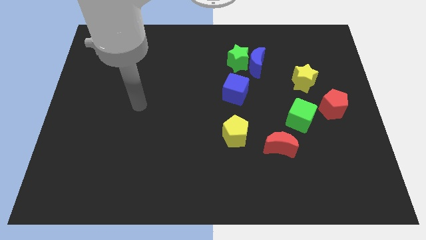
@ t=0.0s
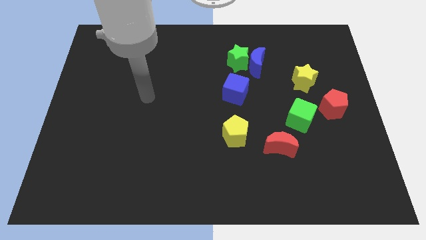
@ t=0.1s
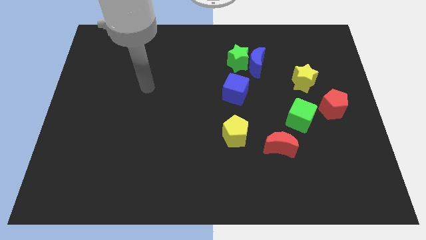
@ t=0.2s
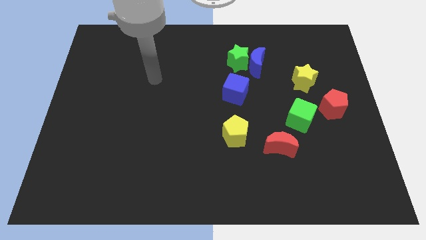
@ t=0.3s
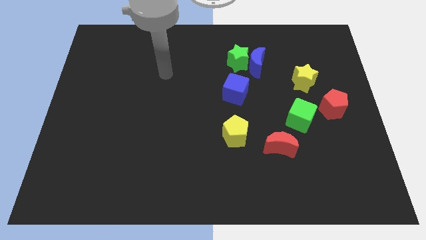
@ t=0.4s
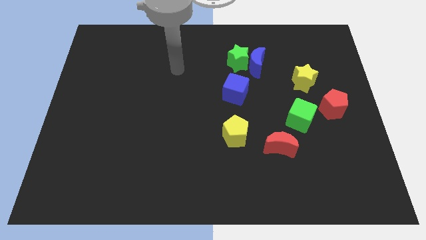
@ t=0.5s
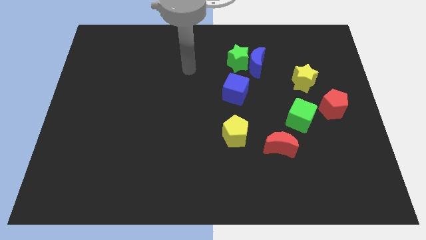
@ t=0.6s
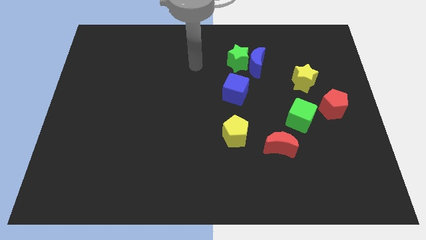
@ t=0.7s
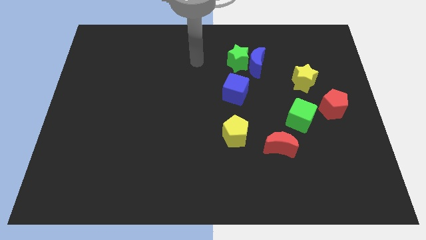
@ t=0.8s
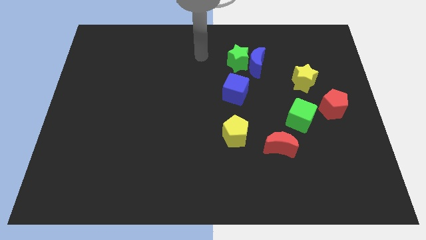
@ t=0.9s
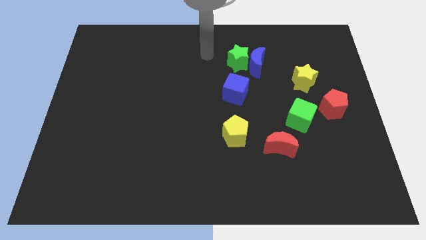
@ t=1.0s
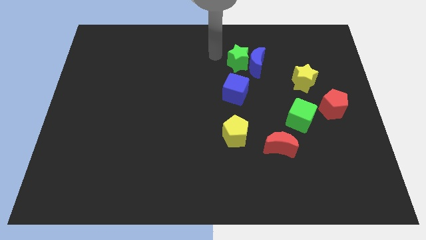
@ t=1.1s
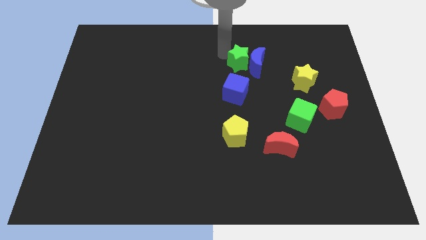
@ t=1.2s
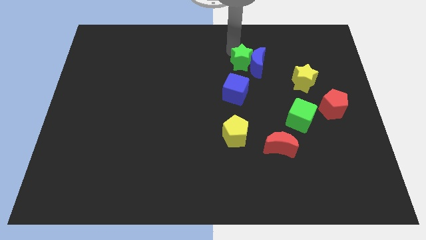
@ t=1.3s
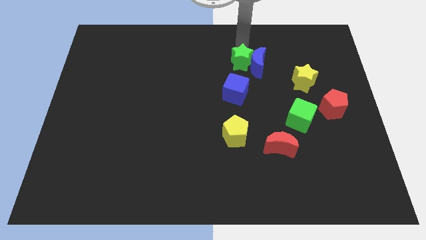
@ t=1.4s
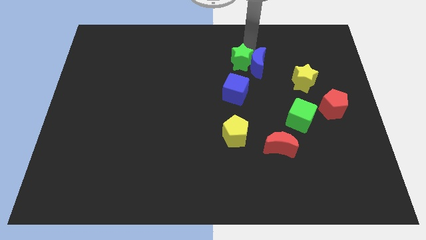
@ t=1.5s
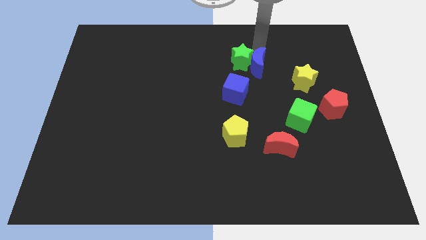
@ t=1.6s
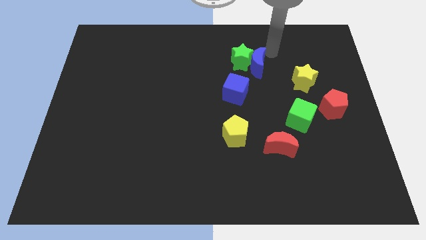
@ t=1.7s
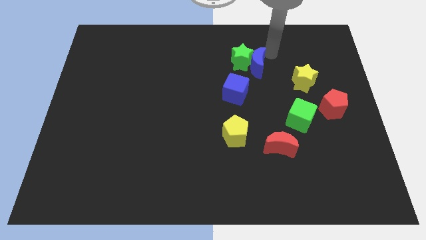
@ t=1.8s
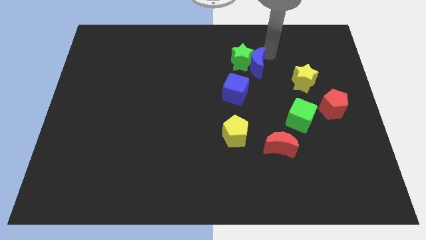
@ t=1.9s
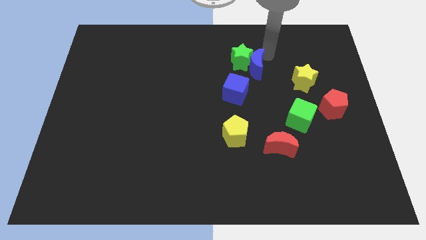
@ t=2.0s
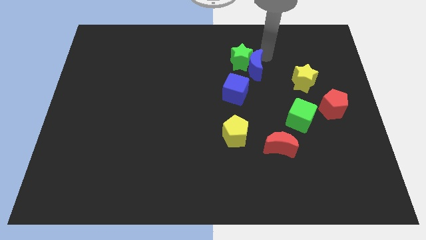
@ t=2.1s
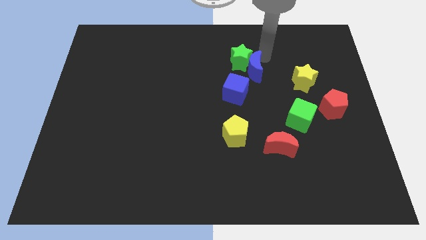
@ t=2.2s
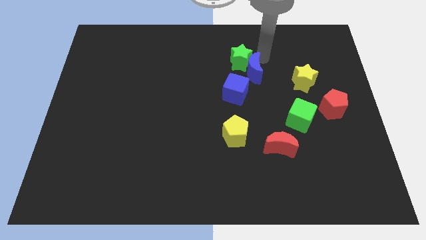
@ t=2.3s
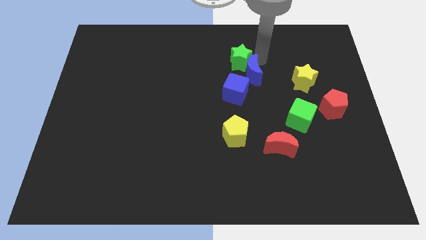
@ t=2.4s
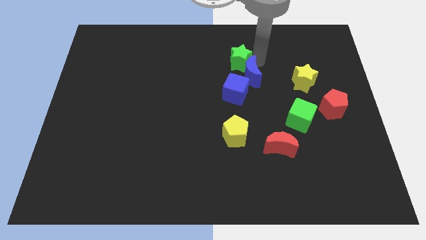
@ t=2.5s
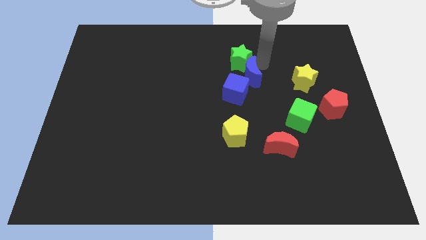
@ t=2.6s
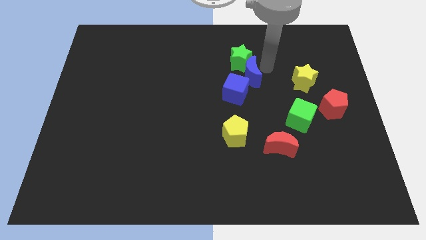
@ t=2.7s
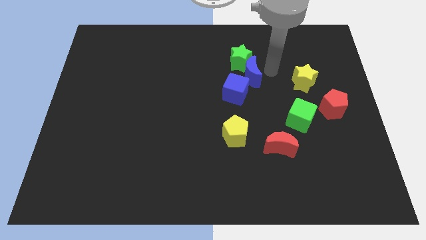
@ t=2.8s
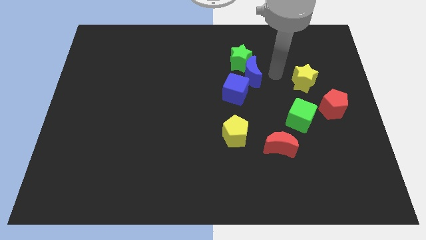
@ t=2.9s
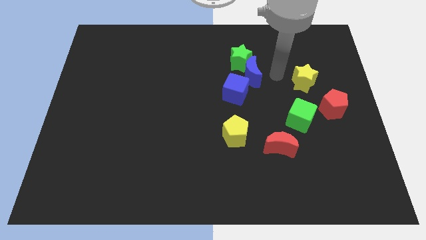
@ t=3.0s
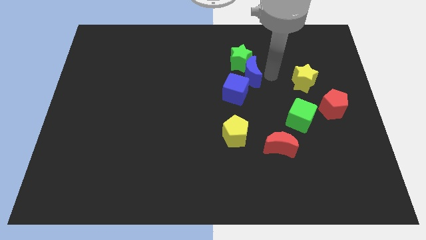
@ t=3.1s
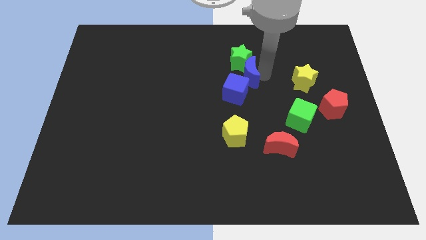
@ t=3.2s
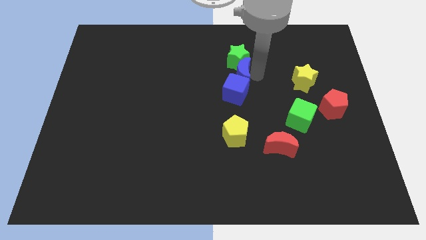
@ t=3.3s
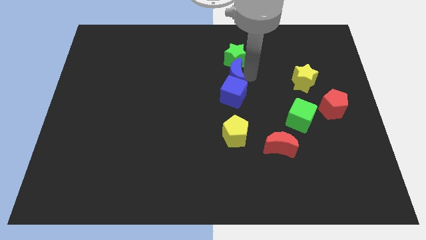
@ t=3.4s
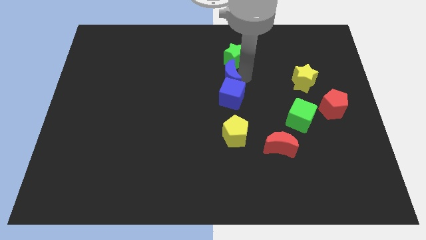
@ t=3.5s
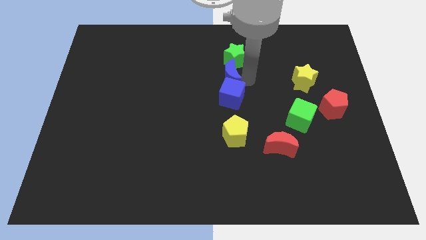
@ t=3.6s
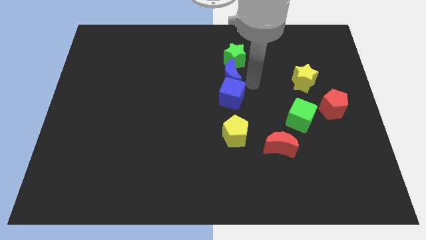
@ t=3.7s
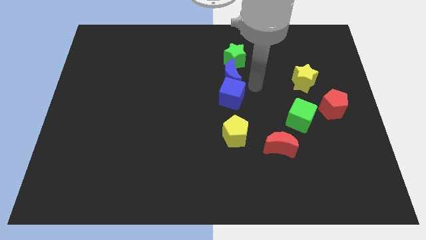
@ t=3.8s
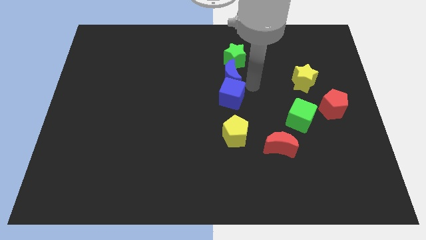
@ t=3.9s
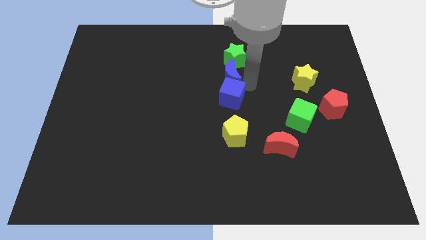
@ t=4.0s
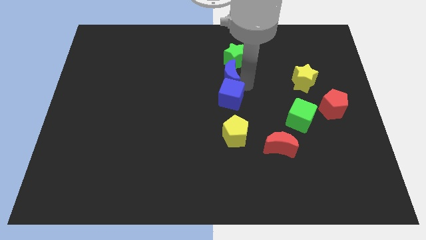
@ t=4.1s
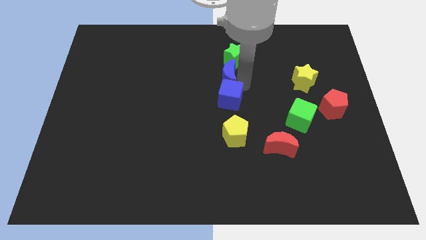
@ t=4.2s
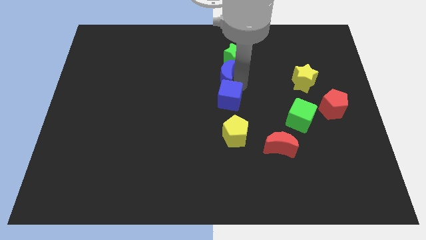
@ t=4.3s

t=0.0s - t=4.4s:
slightly move the blue moon to the left

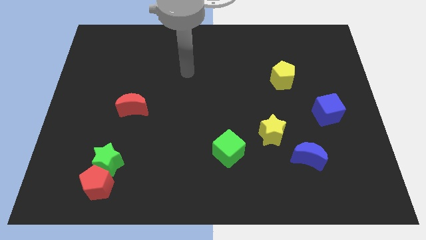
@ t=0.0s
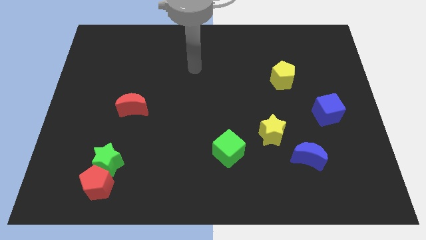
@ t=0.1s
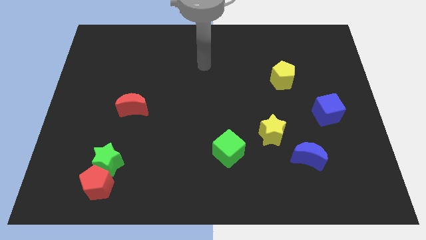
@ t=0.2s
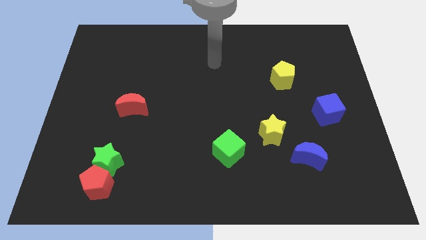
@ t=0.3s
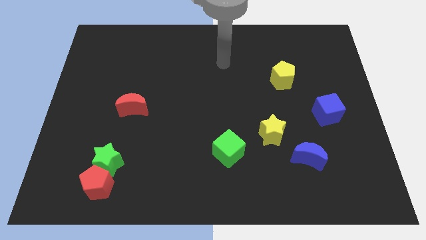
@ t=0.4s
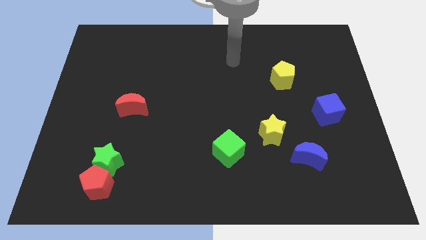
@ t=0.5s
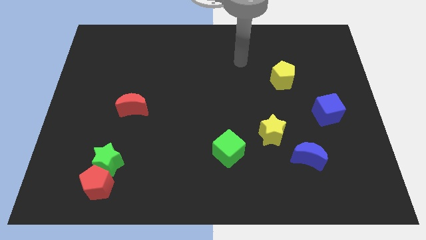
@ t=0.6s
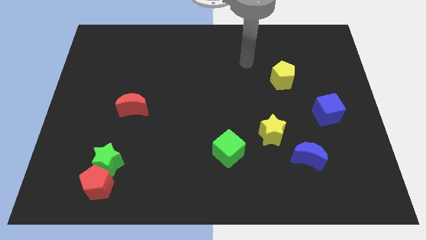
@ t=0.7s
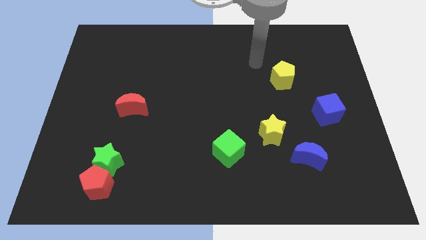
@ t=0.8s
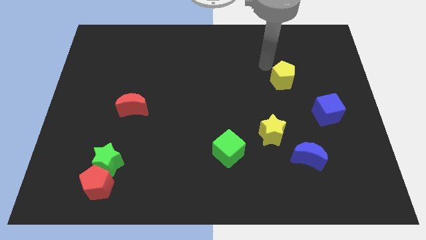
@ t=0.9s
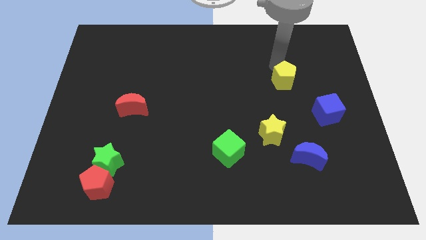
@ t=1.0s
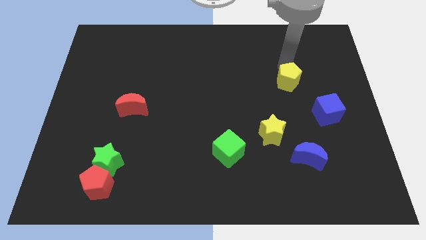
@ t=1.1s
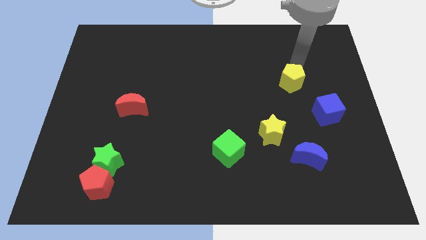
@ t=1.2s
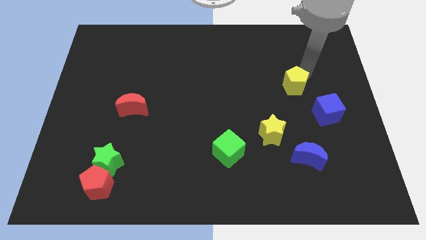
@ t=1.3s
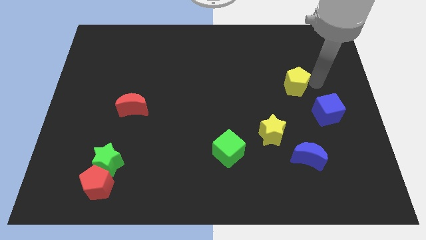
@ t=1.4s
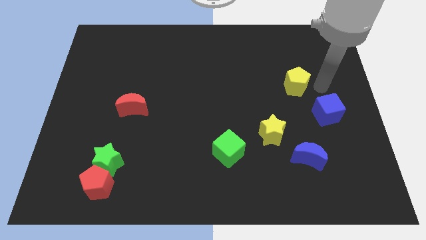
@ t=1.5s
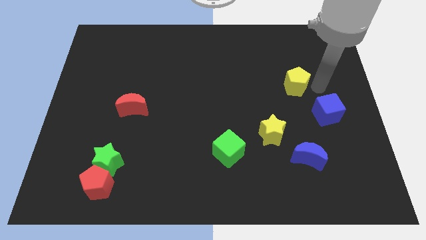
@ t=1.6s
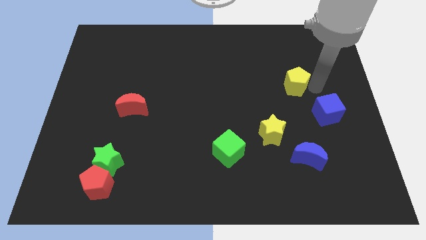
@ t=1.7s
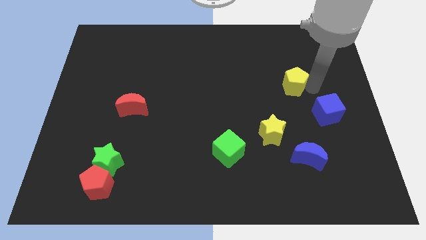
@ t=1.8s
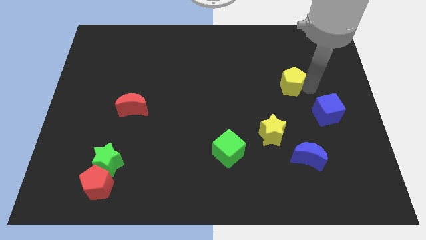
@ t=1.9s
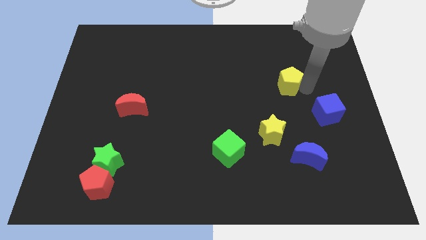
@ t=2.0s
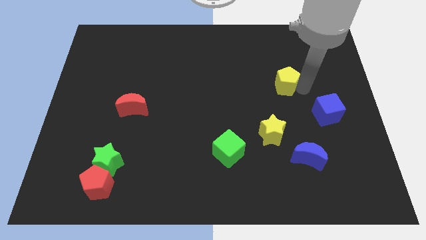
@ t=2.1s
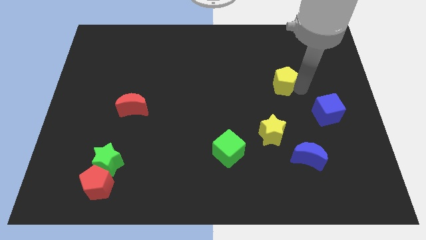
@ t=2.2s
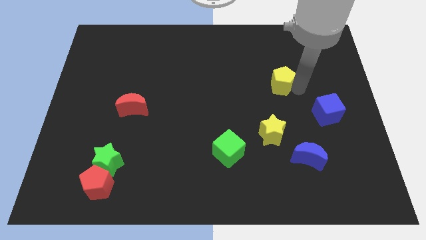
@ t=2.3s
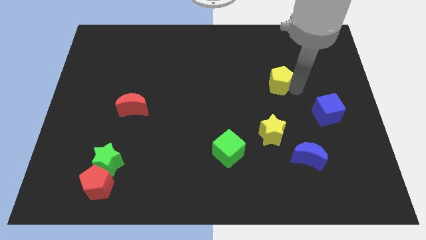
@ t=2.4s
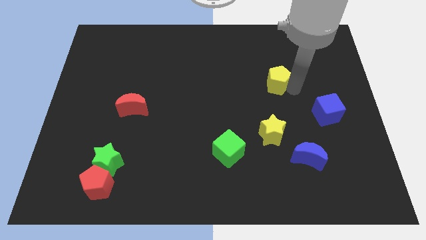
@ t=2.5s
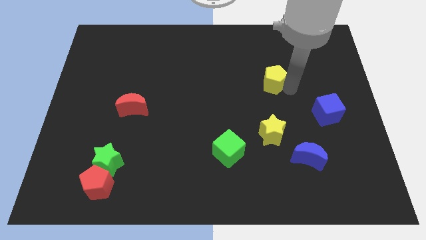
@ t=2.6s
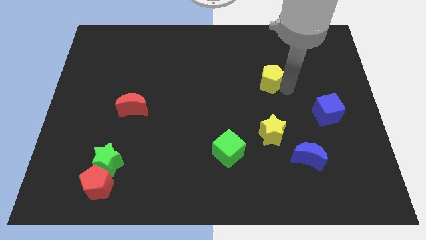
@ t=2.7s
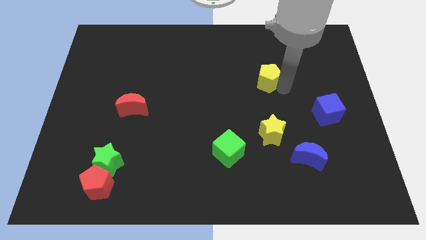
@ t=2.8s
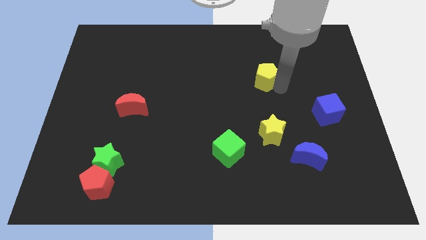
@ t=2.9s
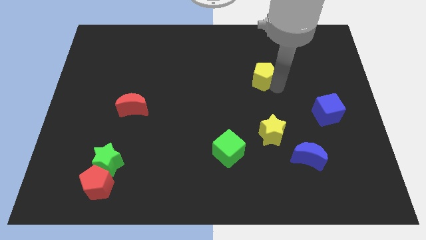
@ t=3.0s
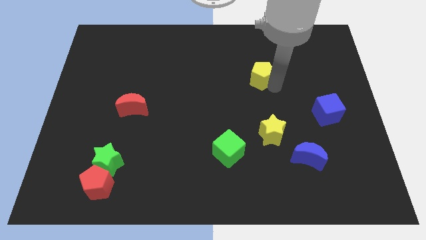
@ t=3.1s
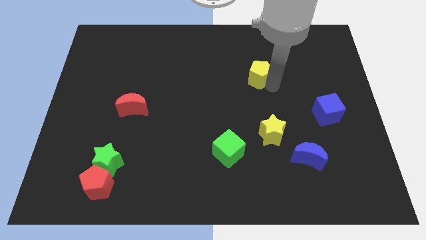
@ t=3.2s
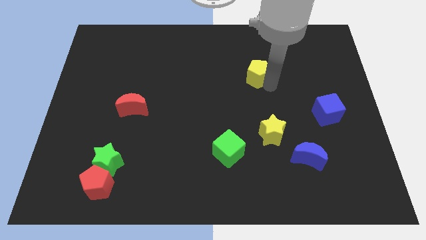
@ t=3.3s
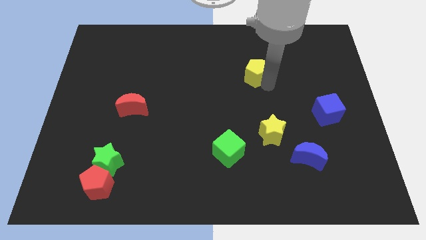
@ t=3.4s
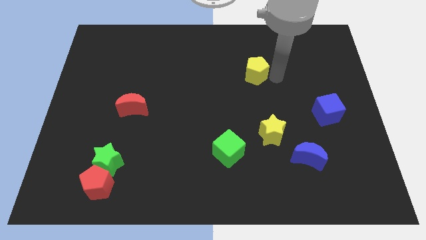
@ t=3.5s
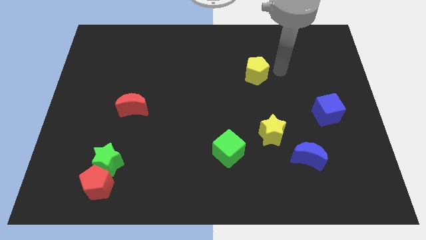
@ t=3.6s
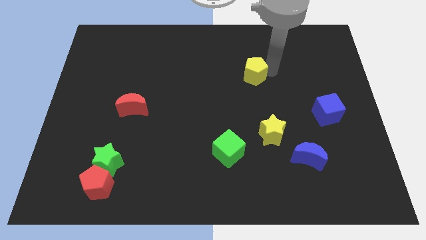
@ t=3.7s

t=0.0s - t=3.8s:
push the yellow pentagon to the left slightly
